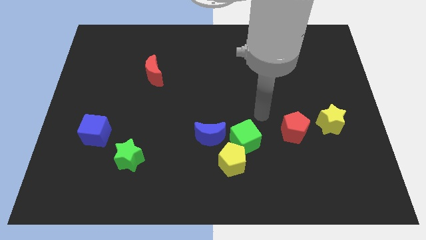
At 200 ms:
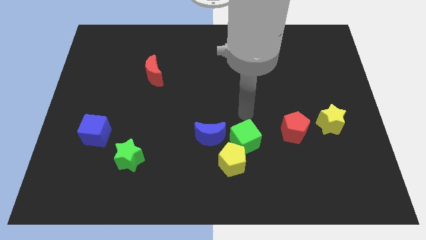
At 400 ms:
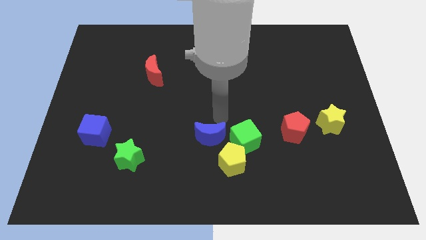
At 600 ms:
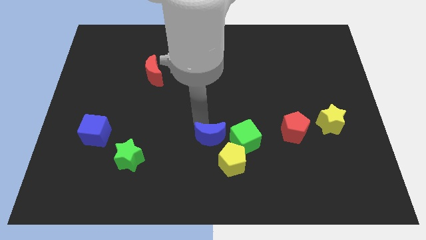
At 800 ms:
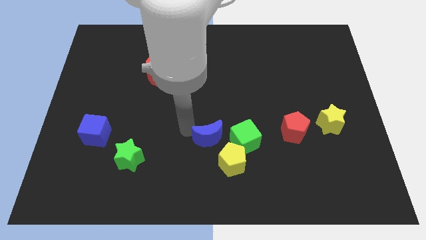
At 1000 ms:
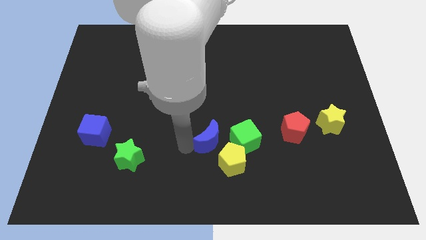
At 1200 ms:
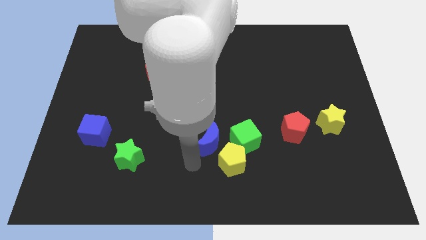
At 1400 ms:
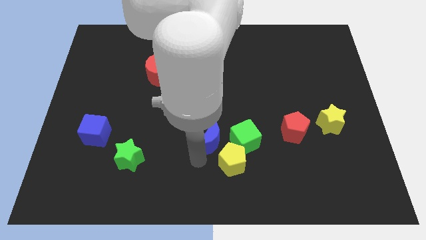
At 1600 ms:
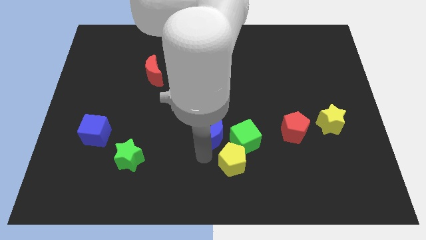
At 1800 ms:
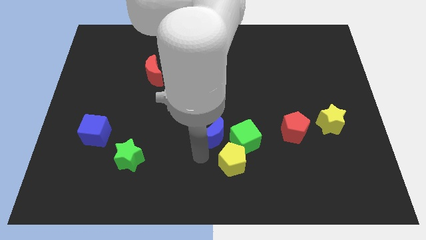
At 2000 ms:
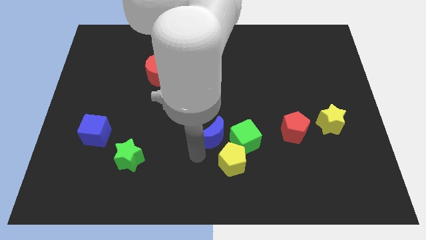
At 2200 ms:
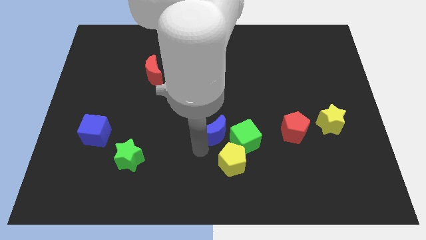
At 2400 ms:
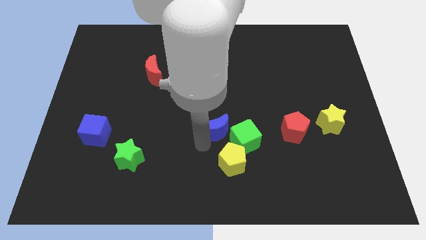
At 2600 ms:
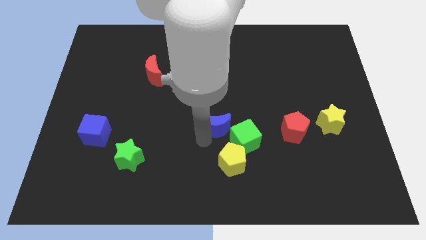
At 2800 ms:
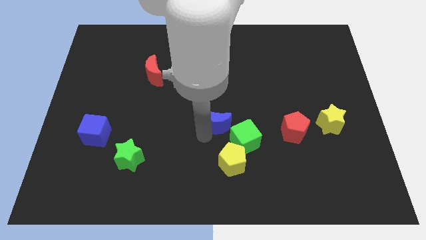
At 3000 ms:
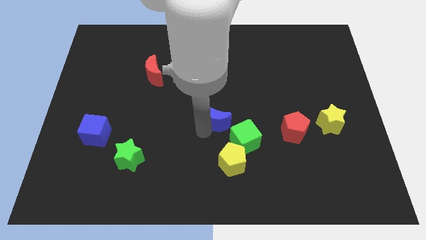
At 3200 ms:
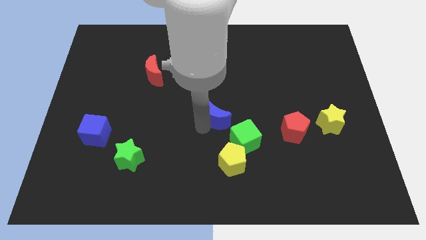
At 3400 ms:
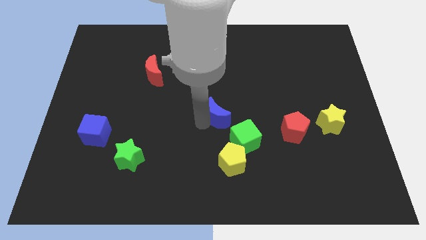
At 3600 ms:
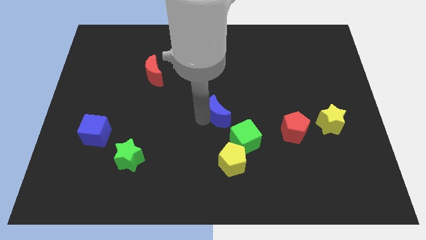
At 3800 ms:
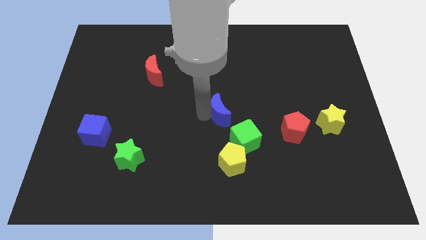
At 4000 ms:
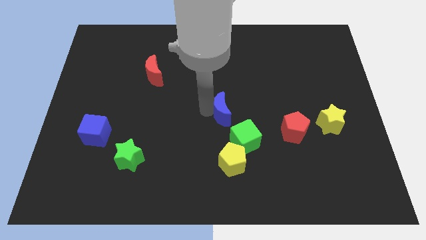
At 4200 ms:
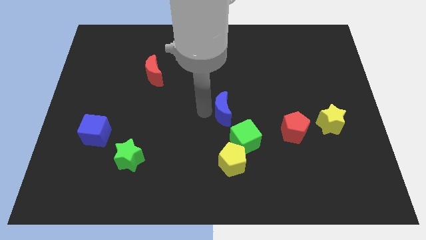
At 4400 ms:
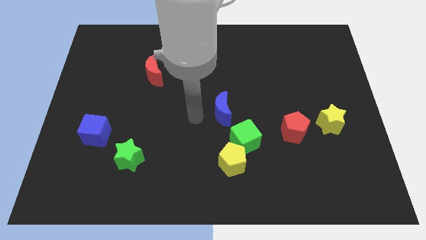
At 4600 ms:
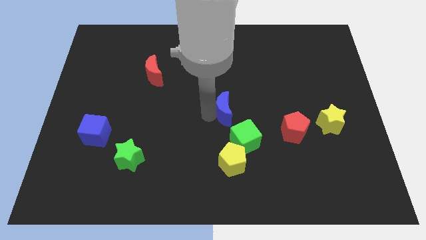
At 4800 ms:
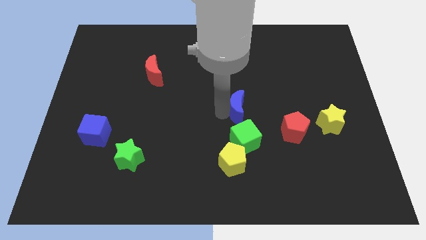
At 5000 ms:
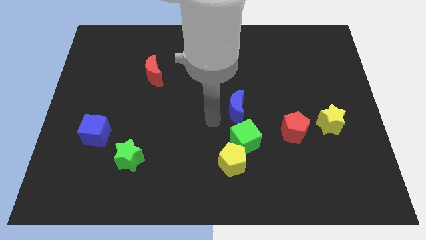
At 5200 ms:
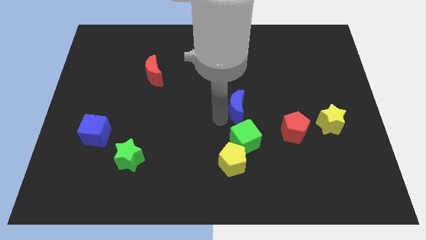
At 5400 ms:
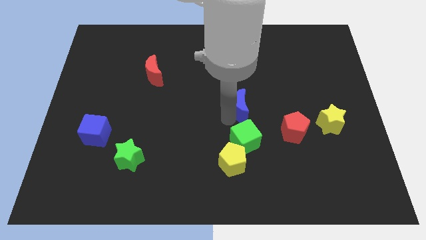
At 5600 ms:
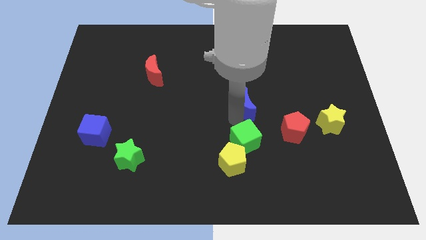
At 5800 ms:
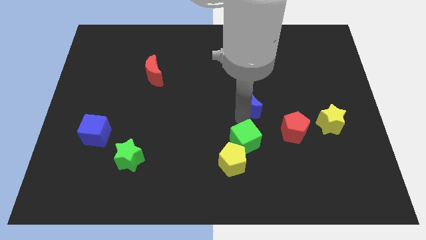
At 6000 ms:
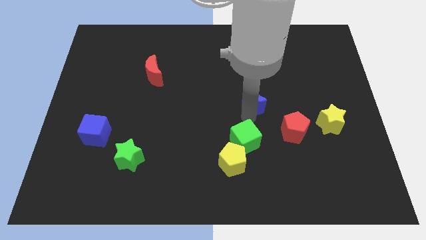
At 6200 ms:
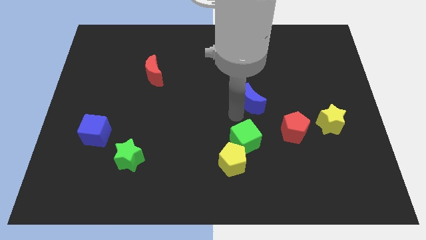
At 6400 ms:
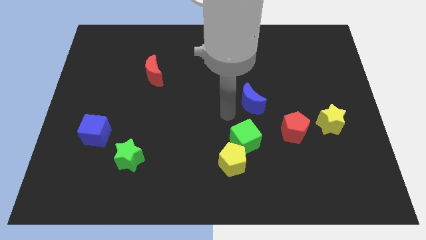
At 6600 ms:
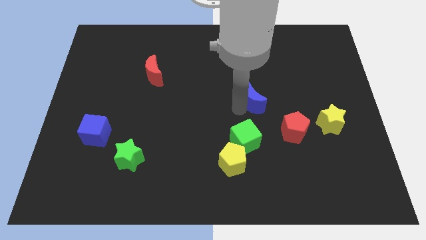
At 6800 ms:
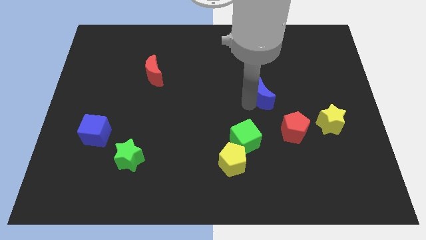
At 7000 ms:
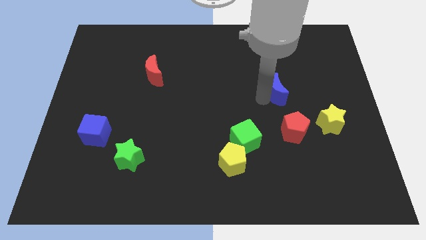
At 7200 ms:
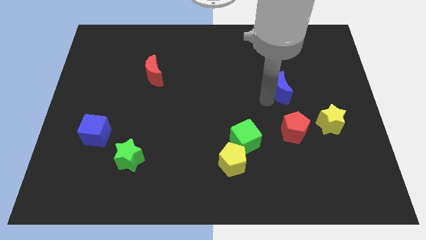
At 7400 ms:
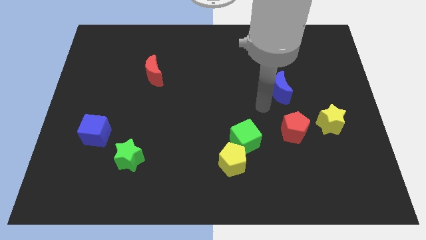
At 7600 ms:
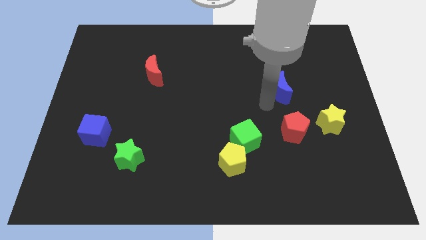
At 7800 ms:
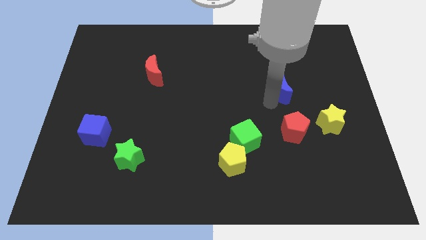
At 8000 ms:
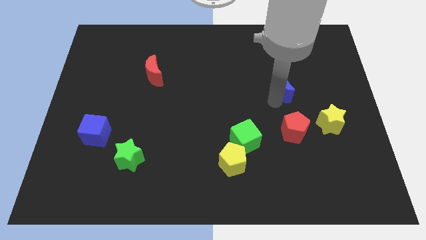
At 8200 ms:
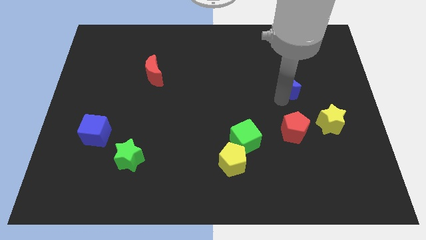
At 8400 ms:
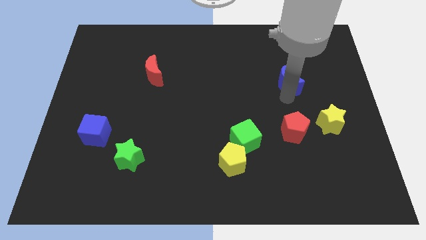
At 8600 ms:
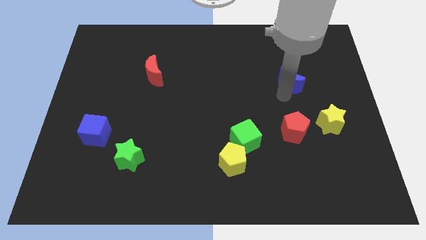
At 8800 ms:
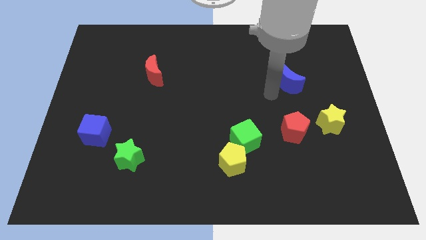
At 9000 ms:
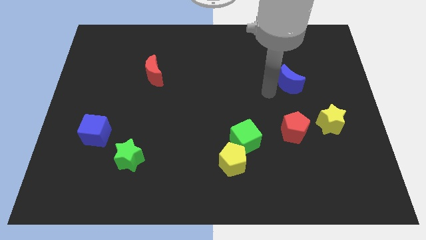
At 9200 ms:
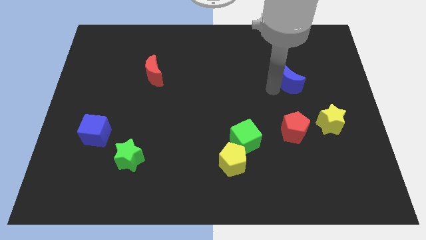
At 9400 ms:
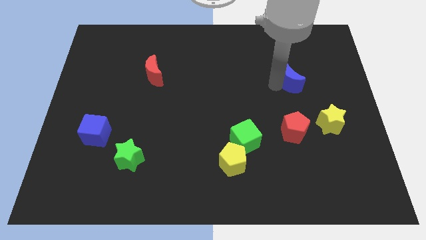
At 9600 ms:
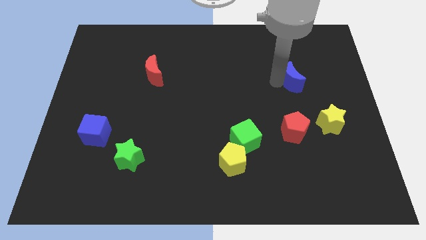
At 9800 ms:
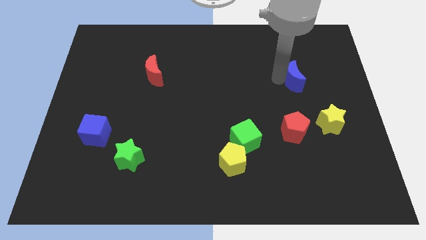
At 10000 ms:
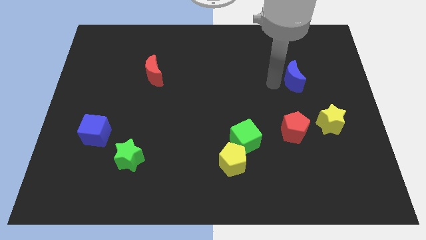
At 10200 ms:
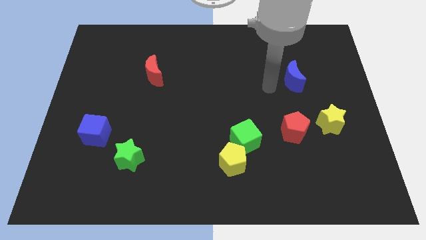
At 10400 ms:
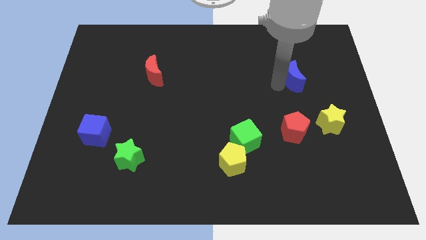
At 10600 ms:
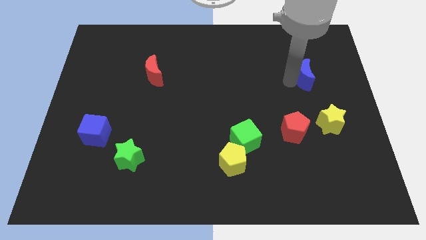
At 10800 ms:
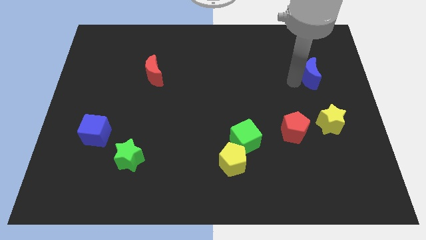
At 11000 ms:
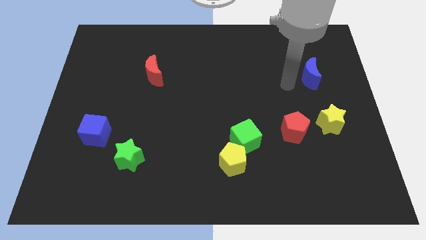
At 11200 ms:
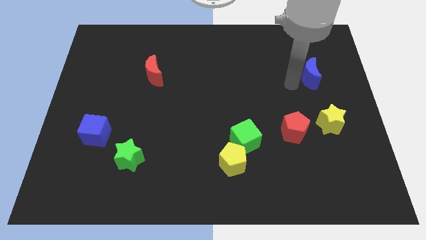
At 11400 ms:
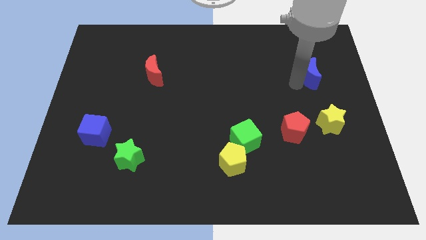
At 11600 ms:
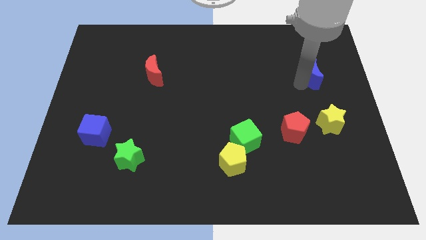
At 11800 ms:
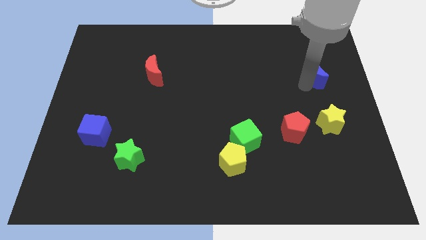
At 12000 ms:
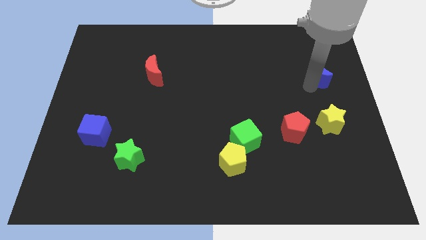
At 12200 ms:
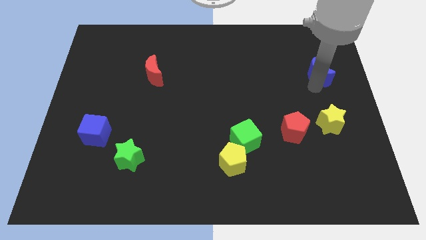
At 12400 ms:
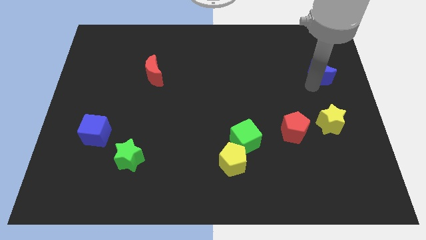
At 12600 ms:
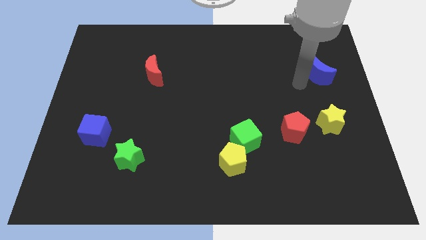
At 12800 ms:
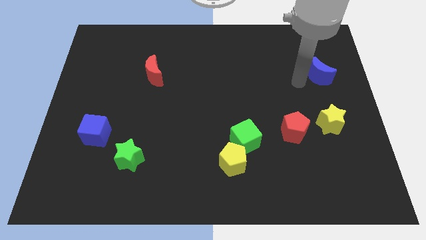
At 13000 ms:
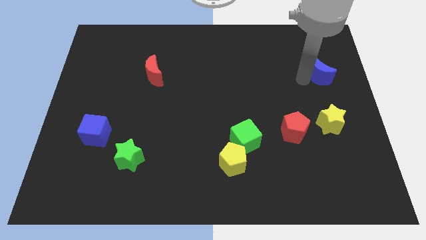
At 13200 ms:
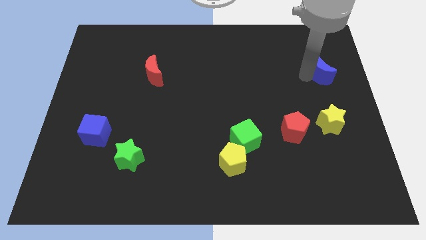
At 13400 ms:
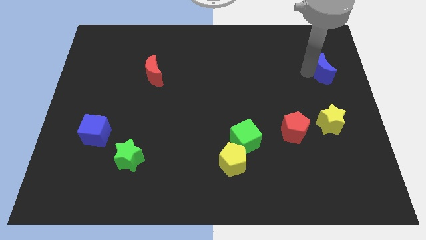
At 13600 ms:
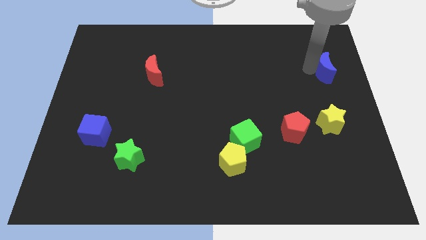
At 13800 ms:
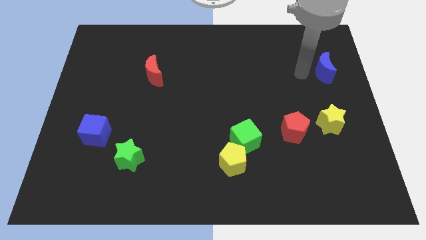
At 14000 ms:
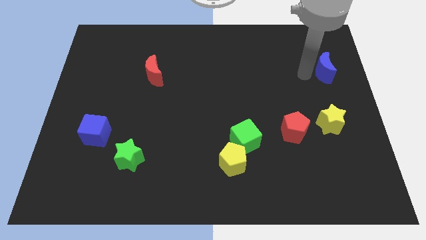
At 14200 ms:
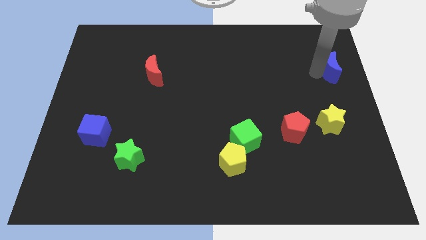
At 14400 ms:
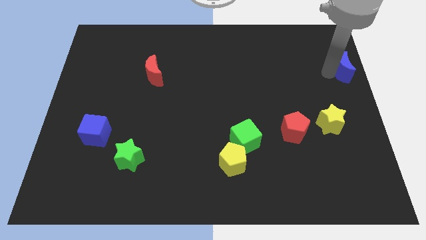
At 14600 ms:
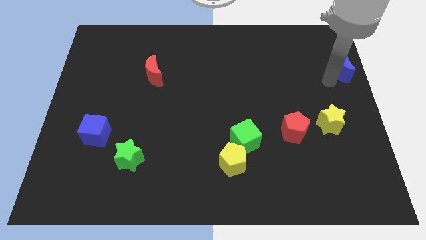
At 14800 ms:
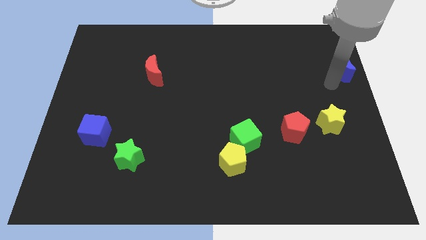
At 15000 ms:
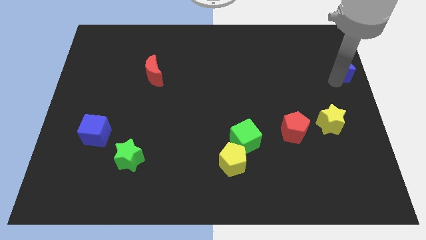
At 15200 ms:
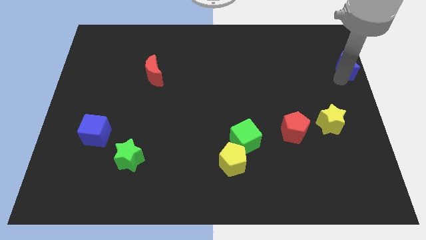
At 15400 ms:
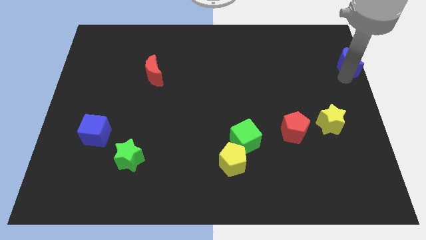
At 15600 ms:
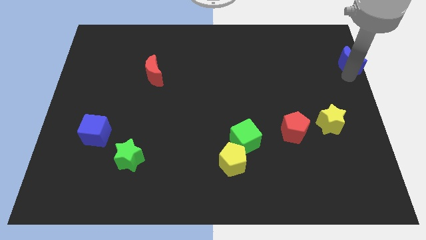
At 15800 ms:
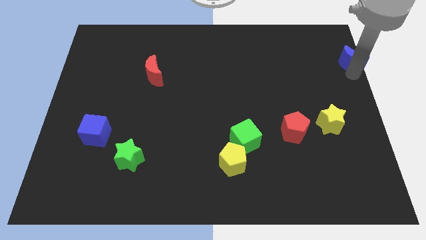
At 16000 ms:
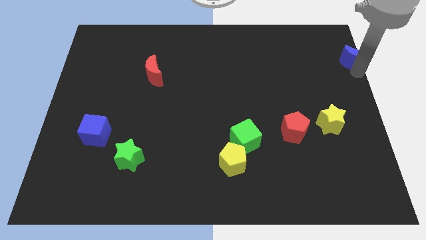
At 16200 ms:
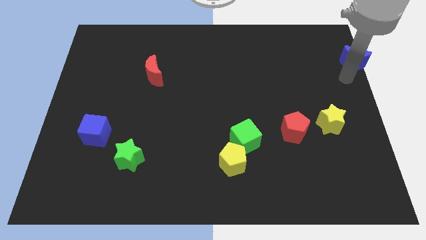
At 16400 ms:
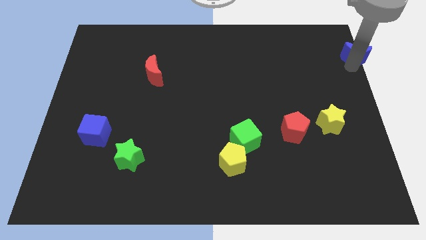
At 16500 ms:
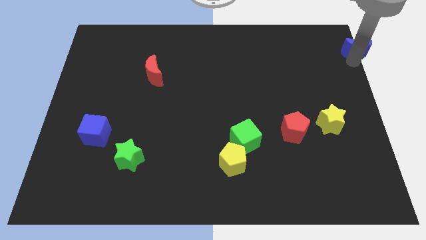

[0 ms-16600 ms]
move the blue moon to the upper right corner
